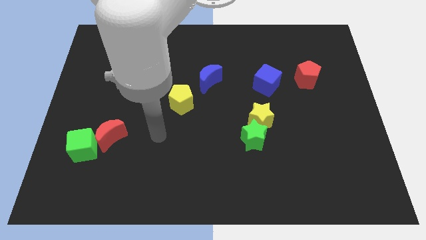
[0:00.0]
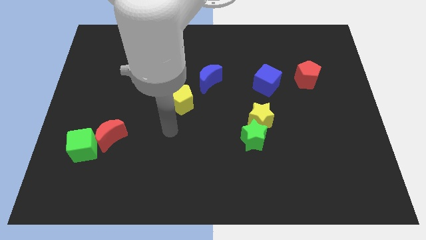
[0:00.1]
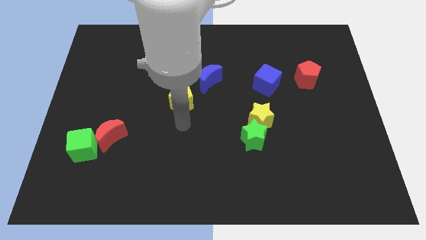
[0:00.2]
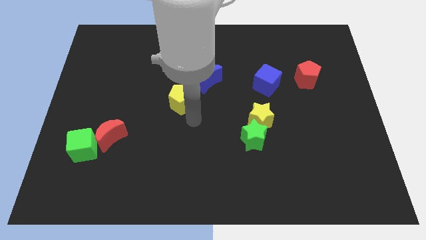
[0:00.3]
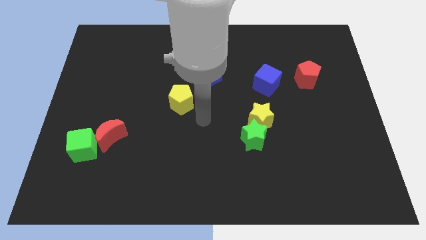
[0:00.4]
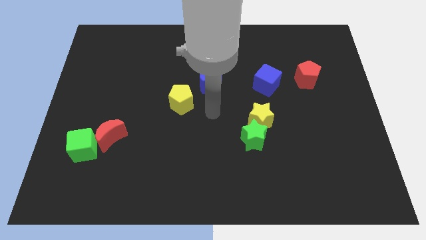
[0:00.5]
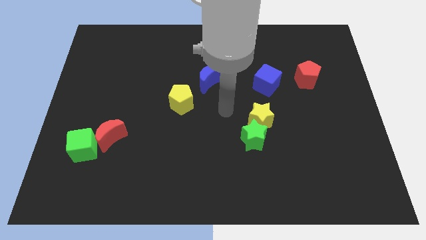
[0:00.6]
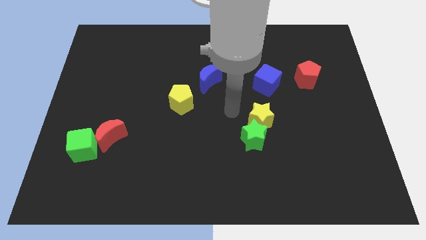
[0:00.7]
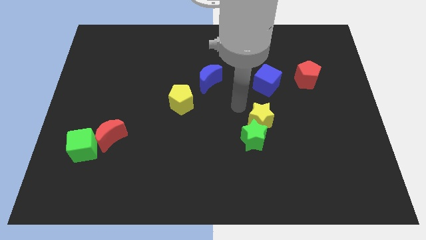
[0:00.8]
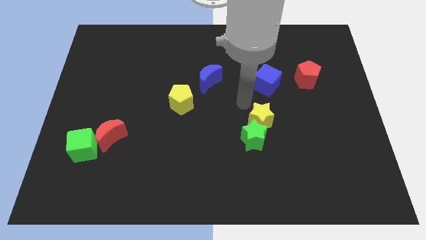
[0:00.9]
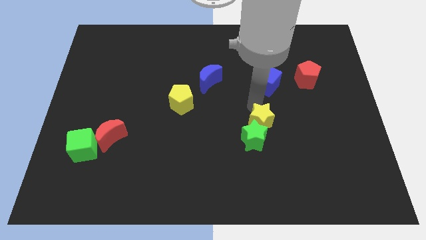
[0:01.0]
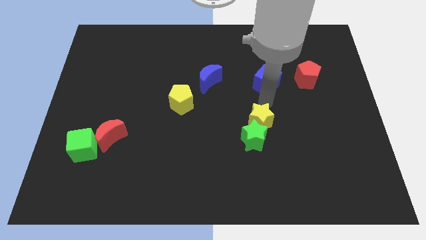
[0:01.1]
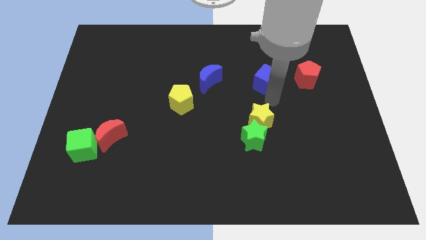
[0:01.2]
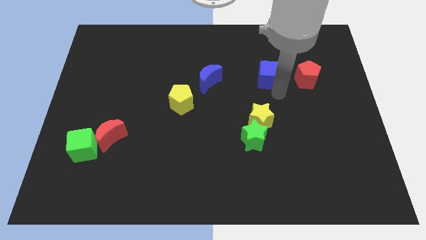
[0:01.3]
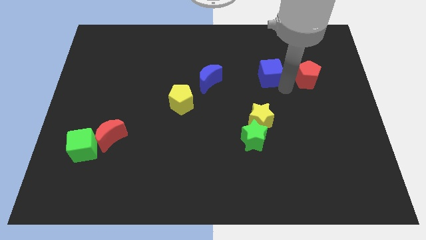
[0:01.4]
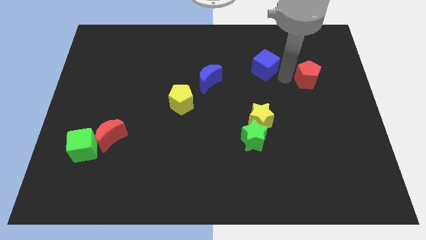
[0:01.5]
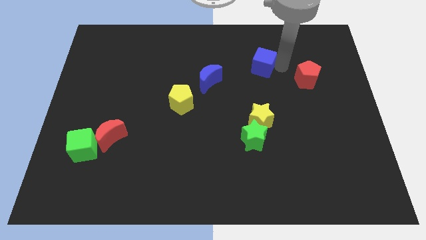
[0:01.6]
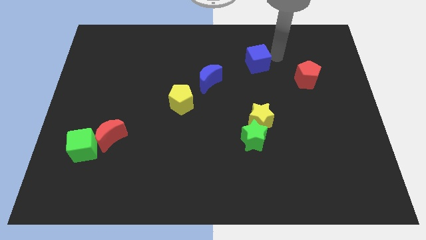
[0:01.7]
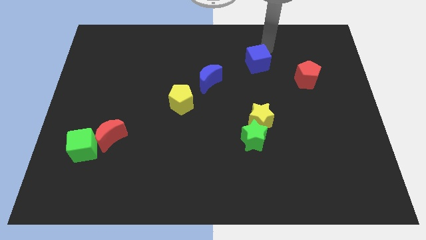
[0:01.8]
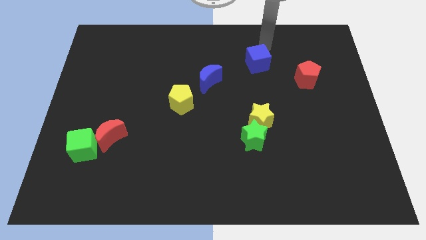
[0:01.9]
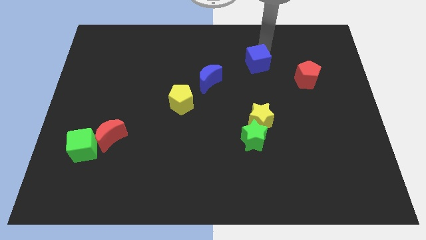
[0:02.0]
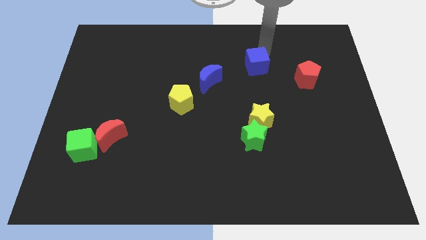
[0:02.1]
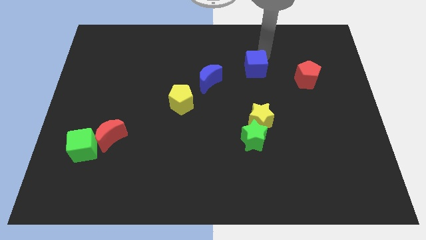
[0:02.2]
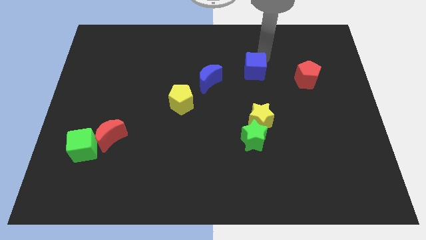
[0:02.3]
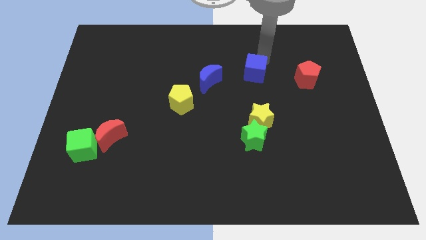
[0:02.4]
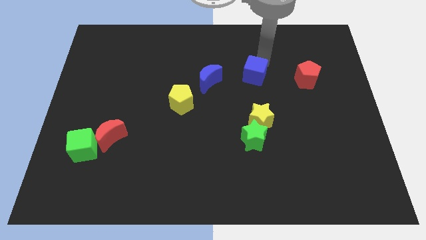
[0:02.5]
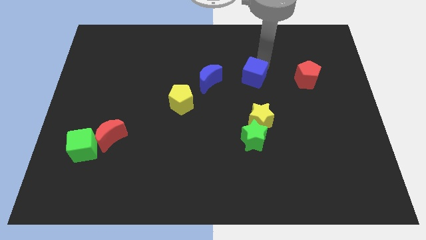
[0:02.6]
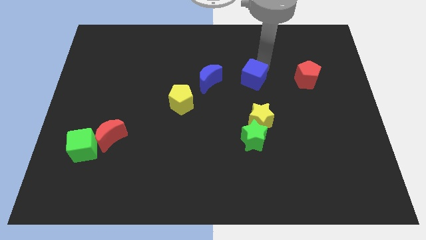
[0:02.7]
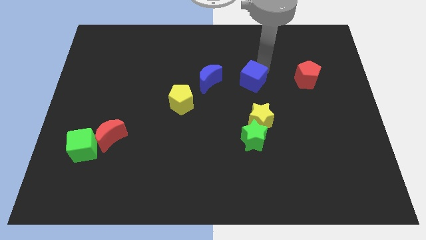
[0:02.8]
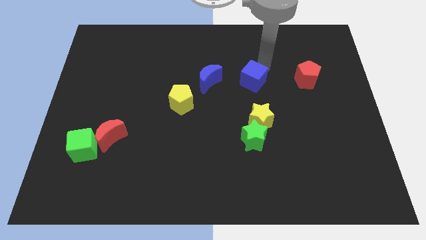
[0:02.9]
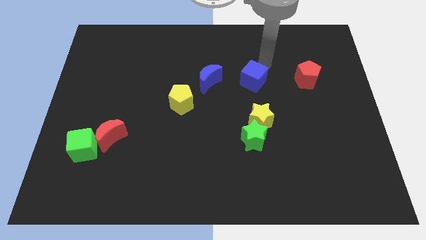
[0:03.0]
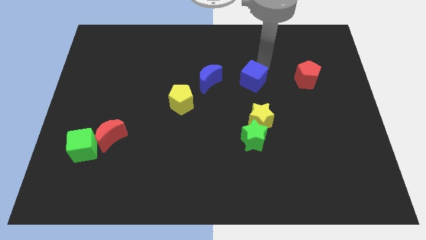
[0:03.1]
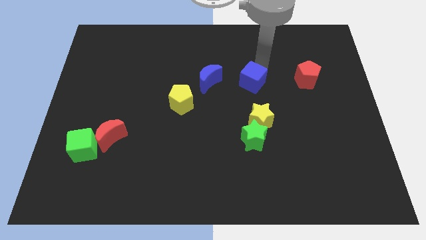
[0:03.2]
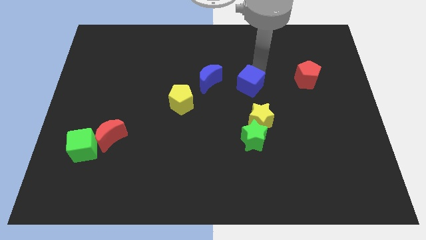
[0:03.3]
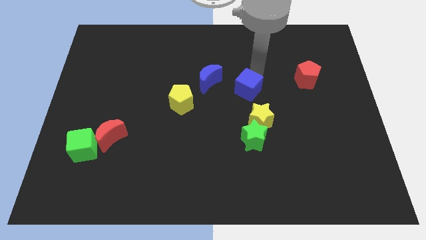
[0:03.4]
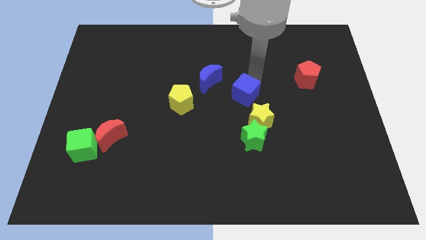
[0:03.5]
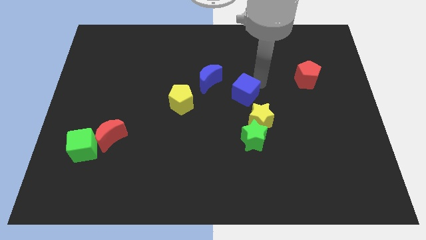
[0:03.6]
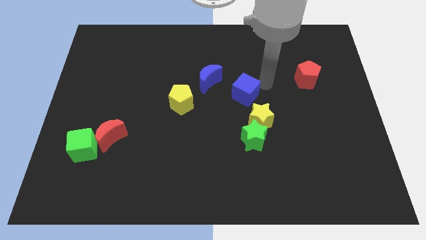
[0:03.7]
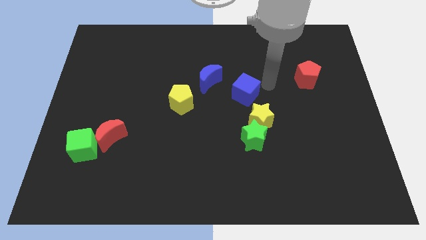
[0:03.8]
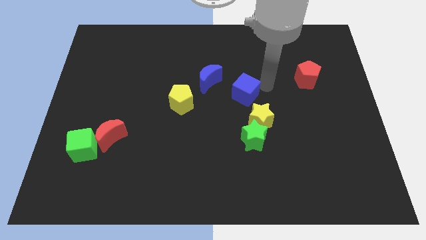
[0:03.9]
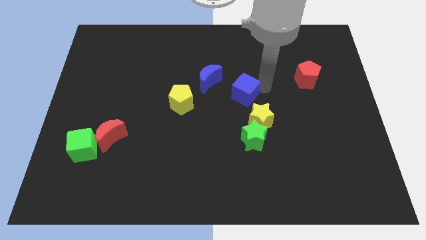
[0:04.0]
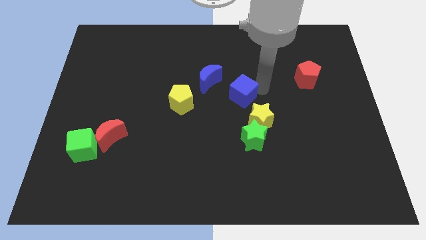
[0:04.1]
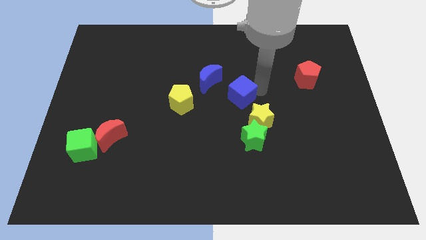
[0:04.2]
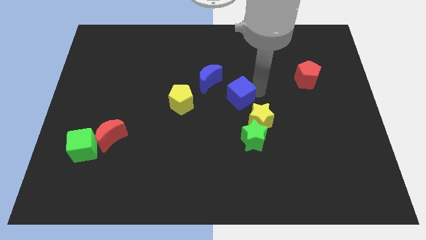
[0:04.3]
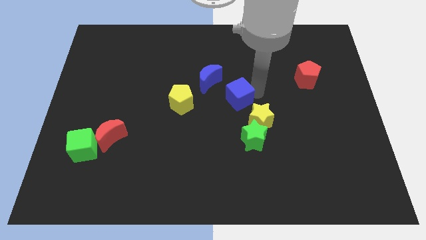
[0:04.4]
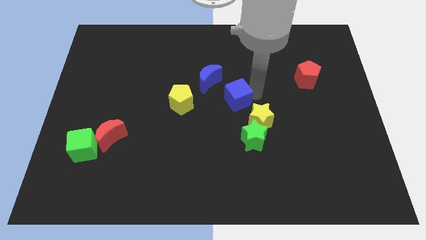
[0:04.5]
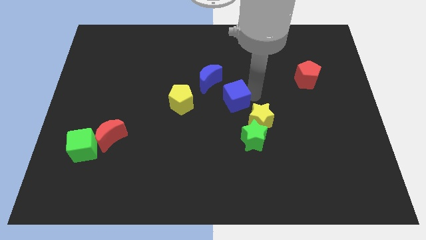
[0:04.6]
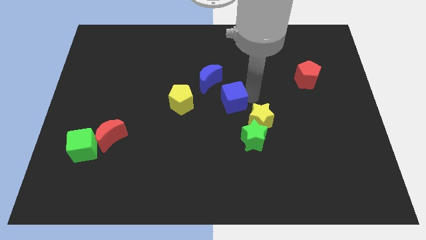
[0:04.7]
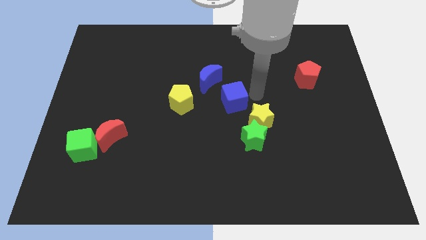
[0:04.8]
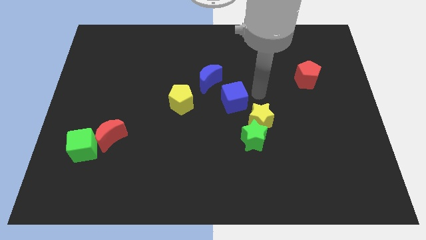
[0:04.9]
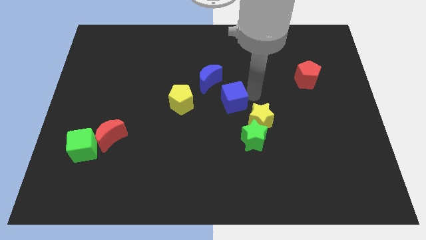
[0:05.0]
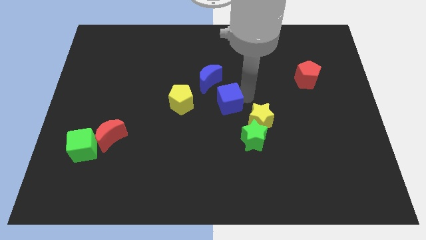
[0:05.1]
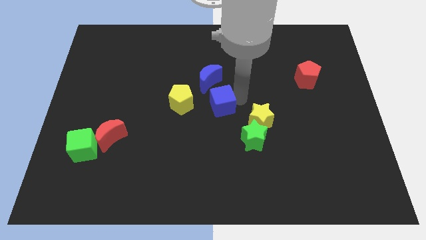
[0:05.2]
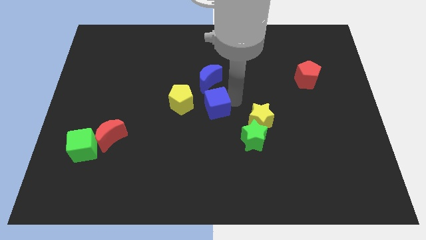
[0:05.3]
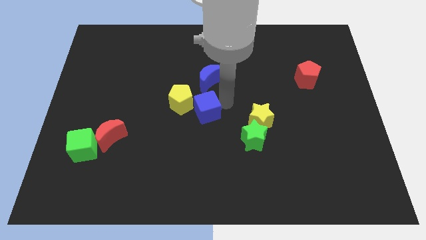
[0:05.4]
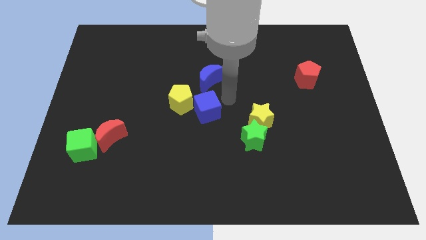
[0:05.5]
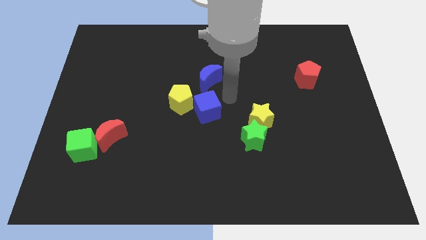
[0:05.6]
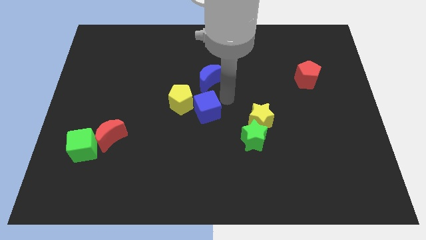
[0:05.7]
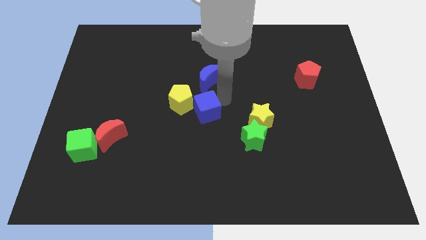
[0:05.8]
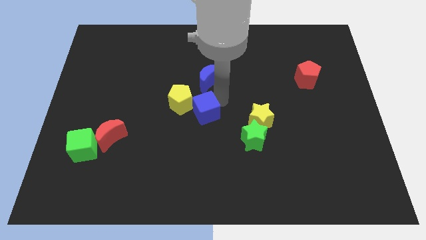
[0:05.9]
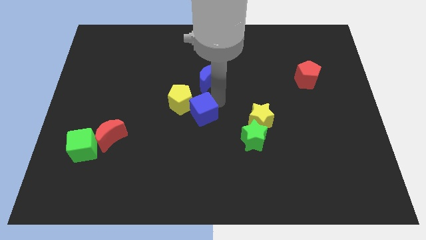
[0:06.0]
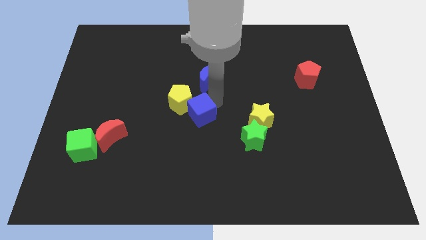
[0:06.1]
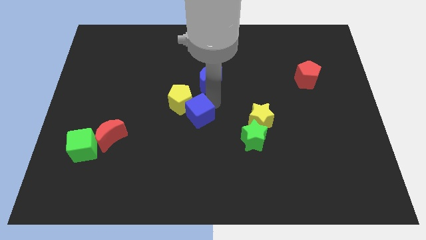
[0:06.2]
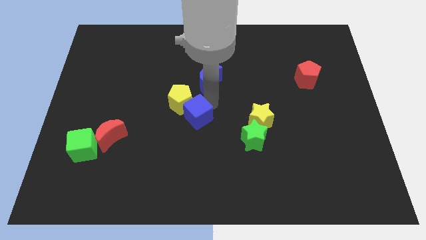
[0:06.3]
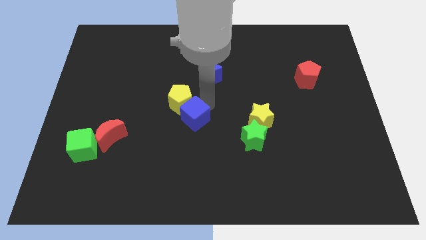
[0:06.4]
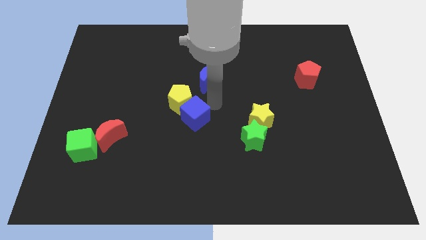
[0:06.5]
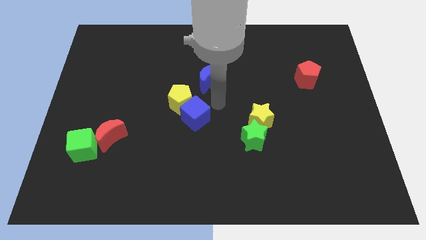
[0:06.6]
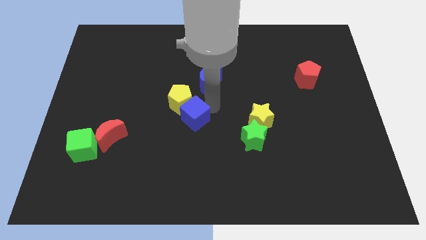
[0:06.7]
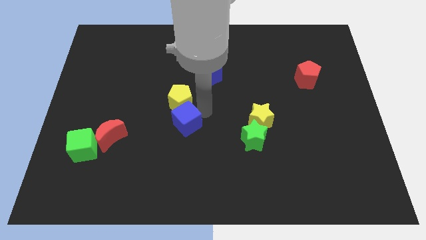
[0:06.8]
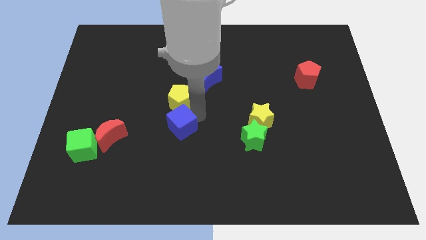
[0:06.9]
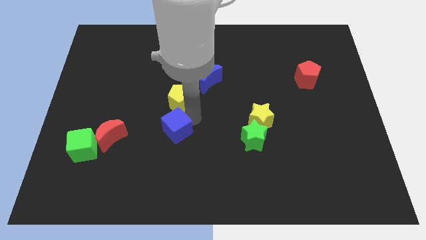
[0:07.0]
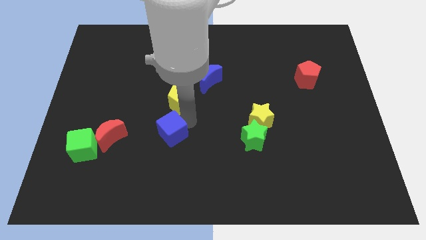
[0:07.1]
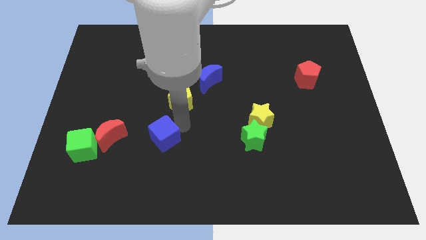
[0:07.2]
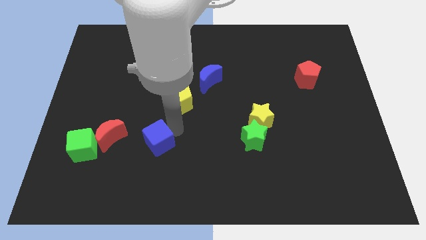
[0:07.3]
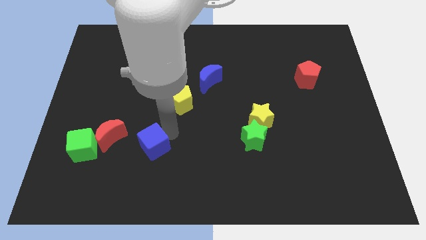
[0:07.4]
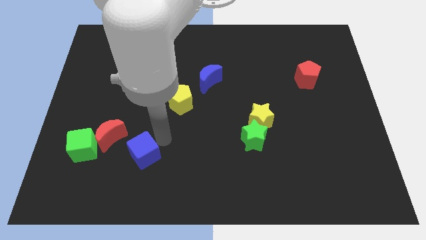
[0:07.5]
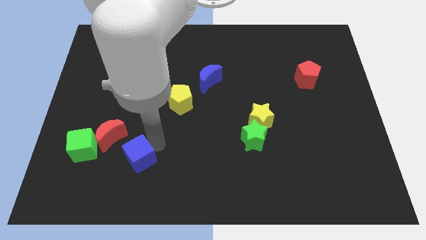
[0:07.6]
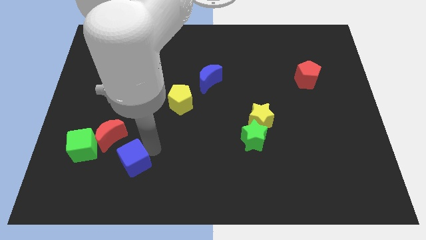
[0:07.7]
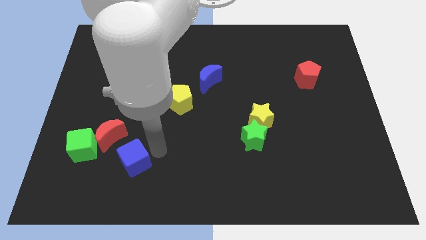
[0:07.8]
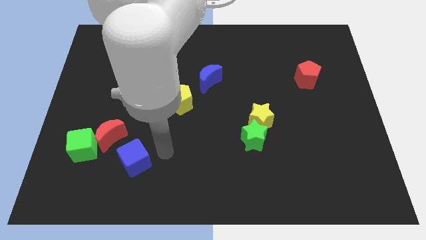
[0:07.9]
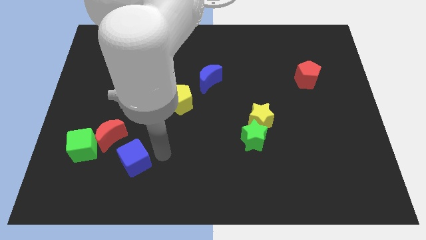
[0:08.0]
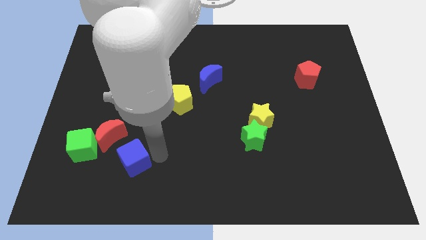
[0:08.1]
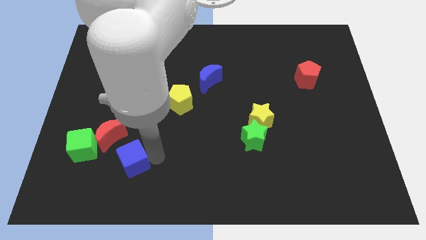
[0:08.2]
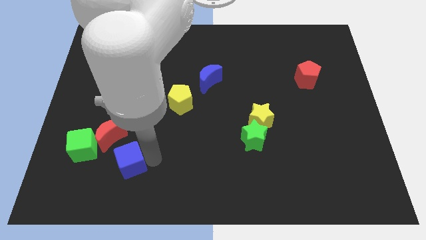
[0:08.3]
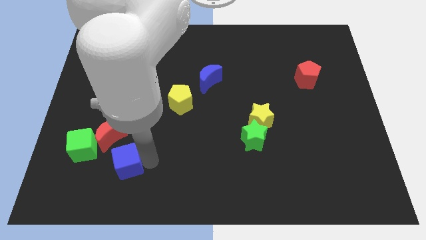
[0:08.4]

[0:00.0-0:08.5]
put the blue cube diagonally down and to the right of the green cube
